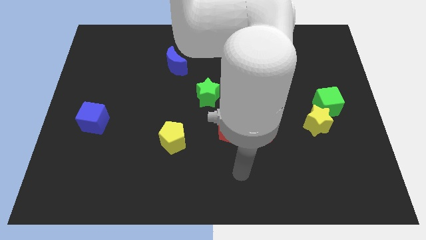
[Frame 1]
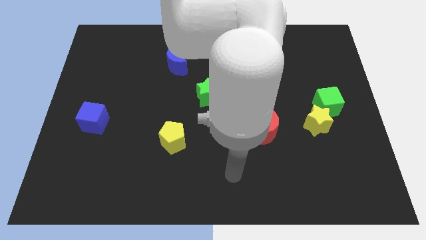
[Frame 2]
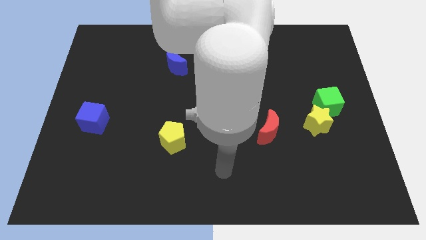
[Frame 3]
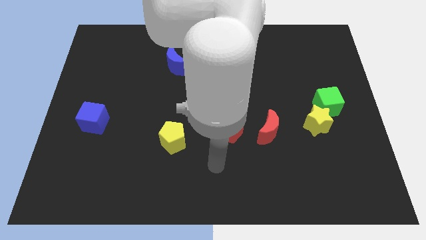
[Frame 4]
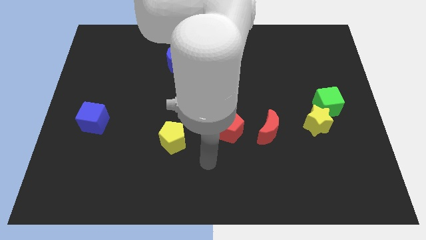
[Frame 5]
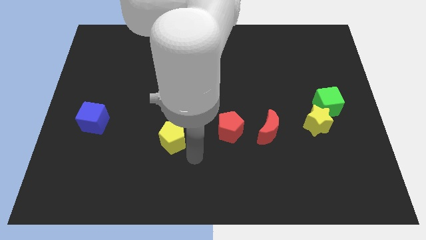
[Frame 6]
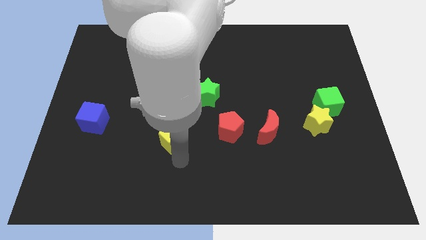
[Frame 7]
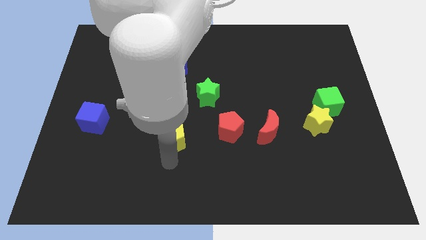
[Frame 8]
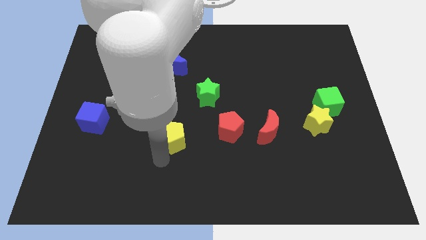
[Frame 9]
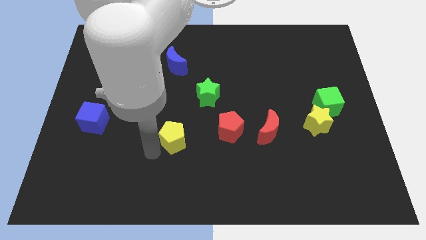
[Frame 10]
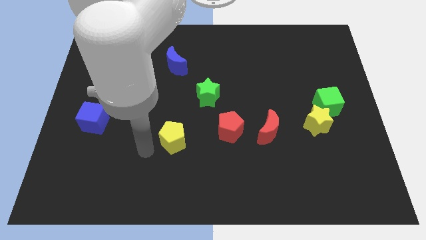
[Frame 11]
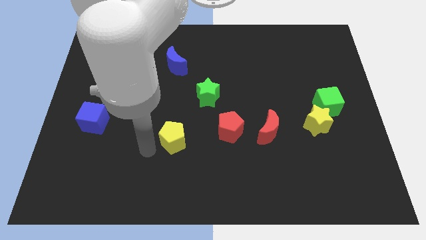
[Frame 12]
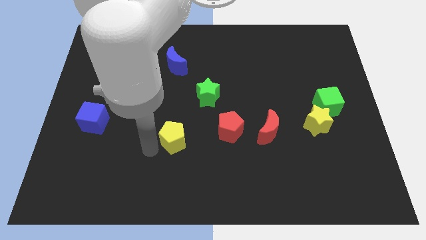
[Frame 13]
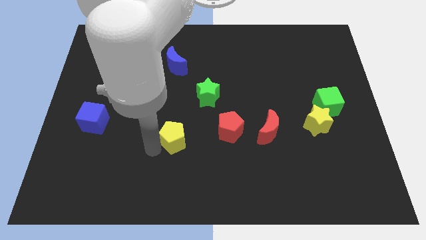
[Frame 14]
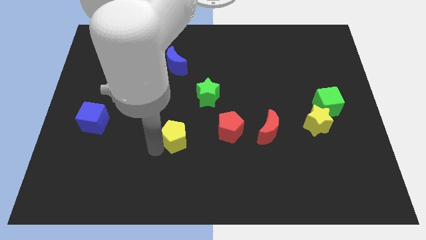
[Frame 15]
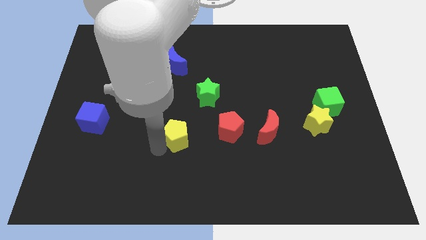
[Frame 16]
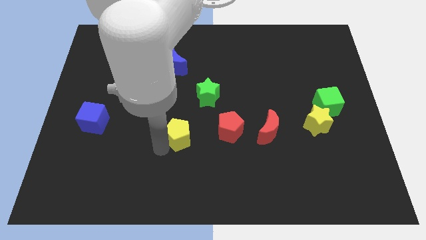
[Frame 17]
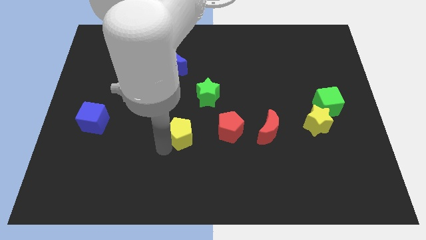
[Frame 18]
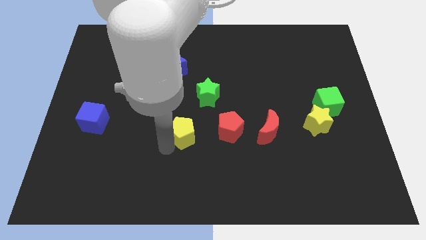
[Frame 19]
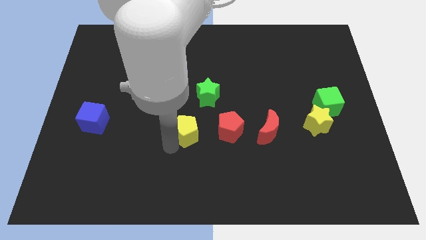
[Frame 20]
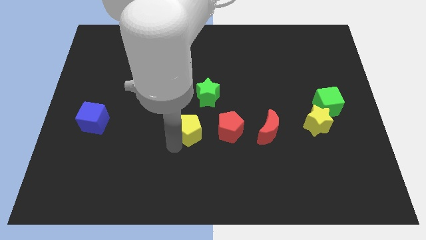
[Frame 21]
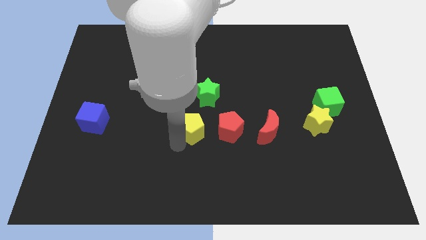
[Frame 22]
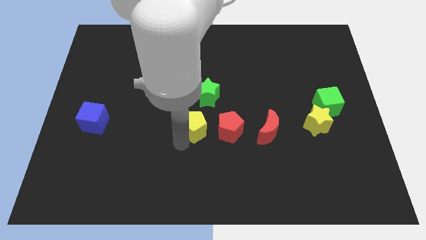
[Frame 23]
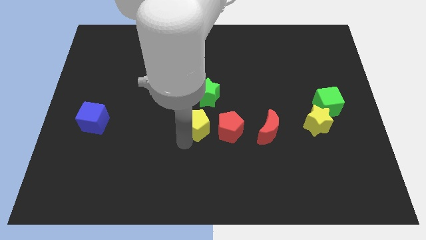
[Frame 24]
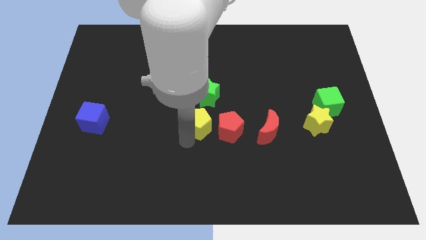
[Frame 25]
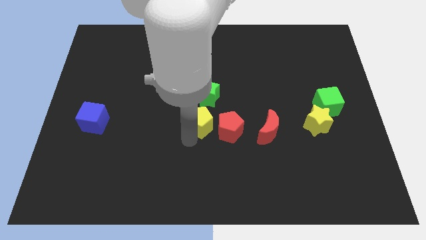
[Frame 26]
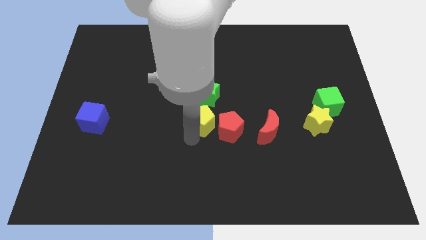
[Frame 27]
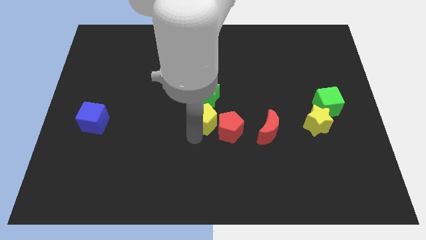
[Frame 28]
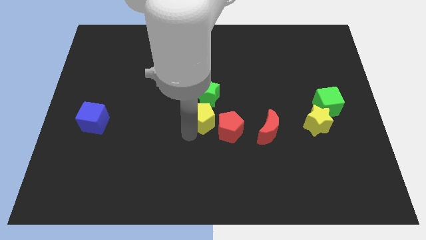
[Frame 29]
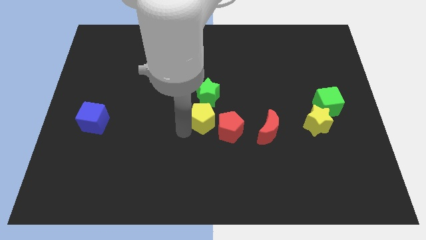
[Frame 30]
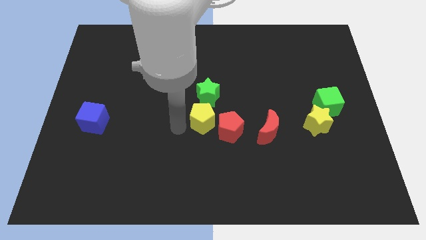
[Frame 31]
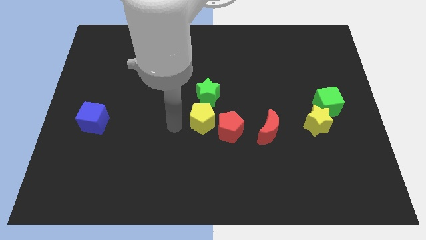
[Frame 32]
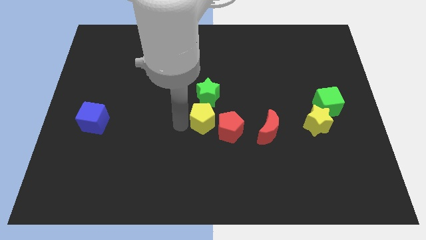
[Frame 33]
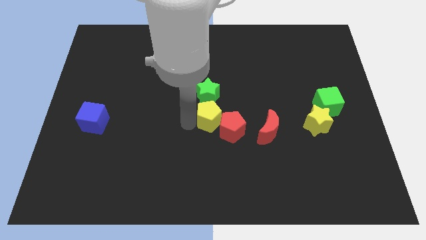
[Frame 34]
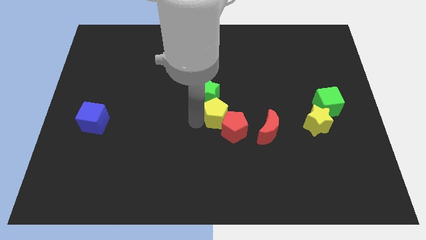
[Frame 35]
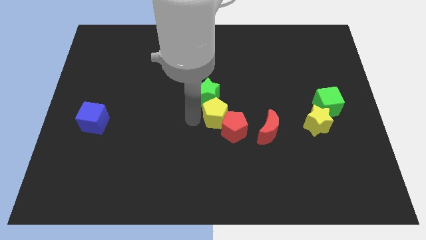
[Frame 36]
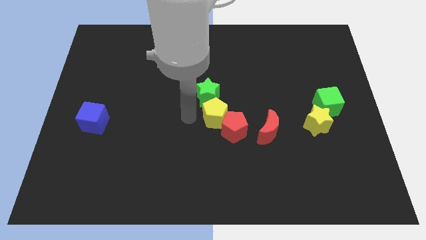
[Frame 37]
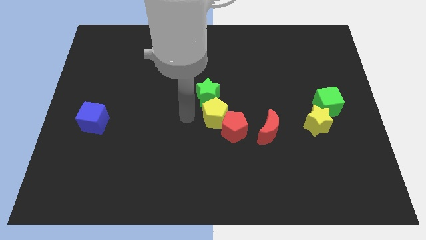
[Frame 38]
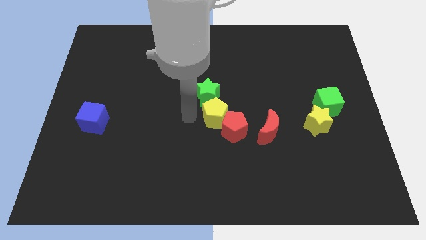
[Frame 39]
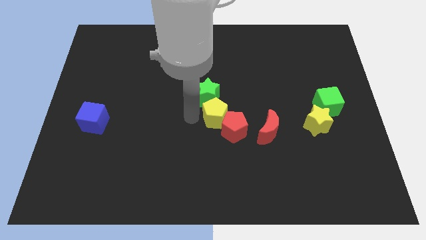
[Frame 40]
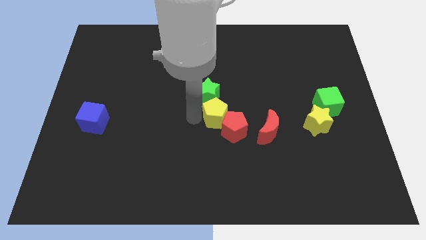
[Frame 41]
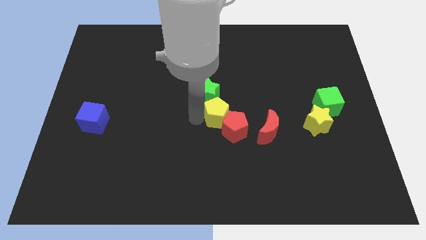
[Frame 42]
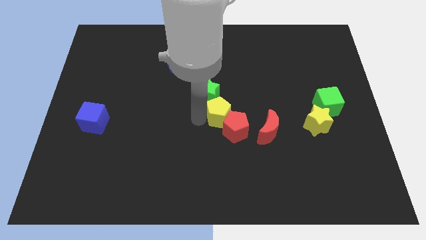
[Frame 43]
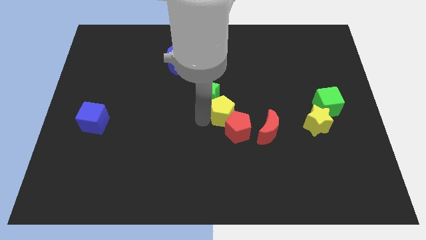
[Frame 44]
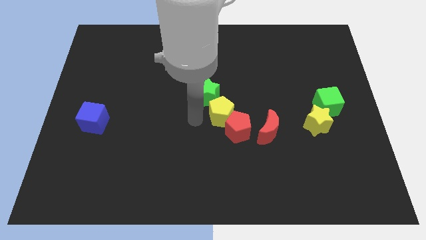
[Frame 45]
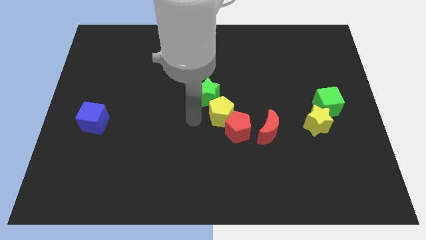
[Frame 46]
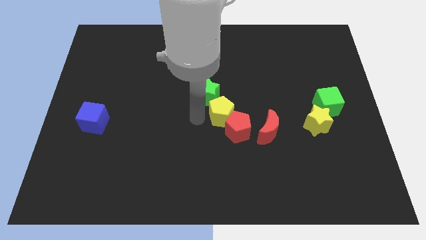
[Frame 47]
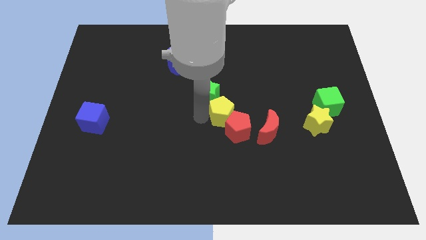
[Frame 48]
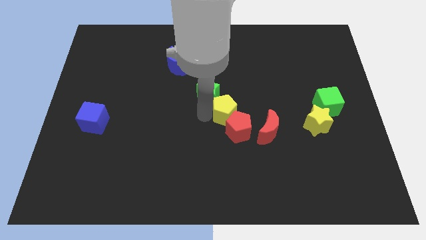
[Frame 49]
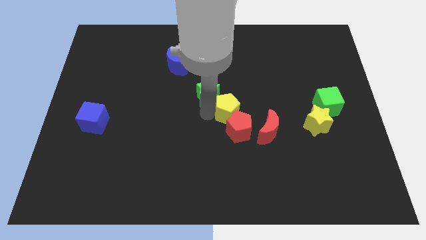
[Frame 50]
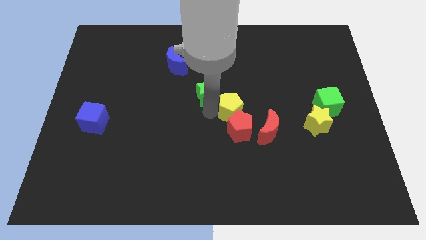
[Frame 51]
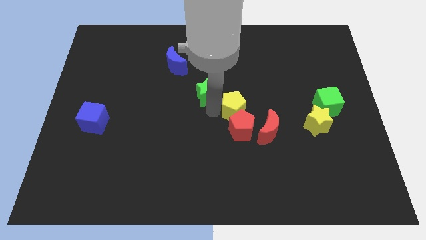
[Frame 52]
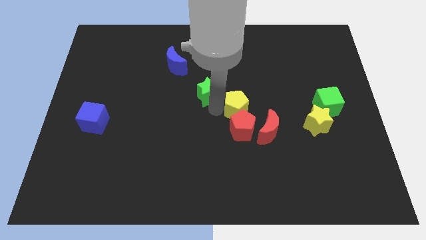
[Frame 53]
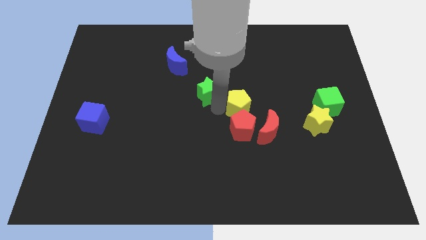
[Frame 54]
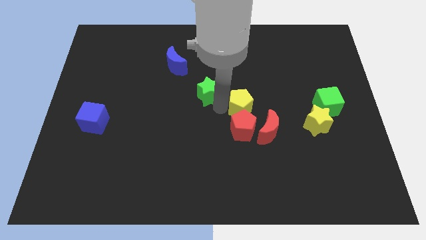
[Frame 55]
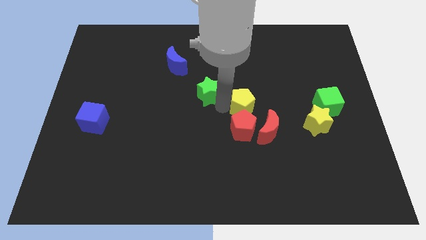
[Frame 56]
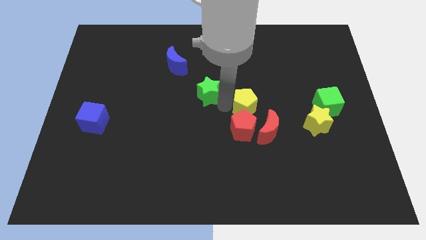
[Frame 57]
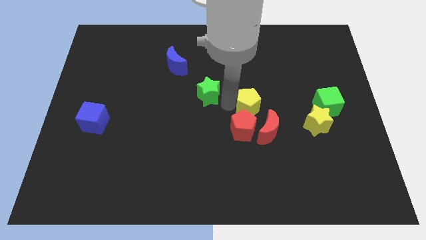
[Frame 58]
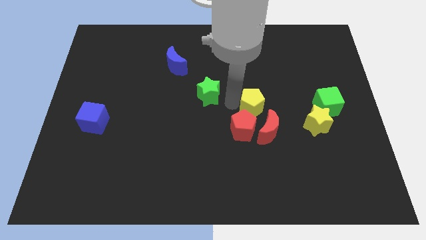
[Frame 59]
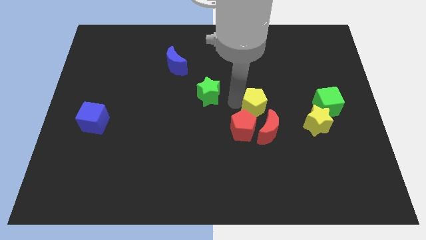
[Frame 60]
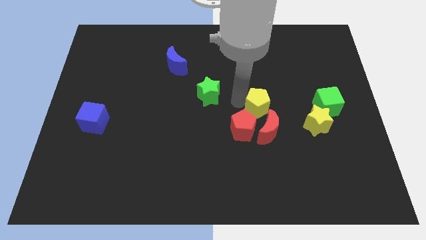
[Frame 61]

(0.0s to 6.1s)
move the yellow pentagon to the left of the green cube

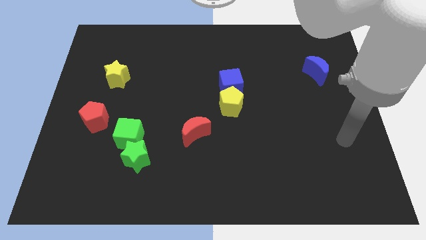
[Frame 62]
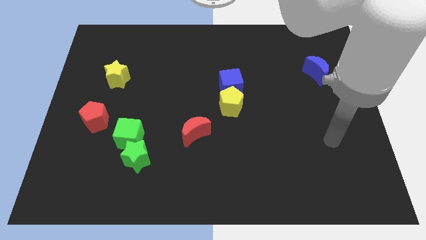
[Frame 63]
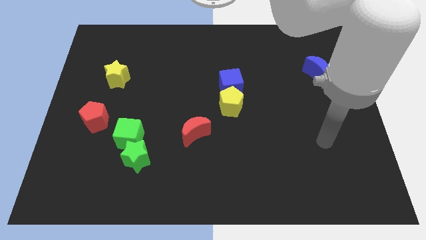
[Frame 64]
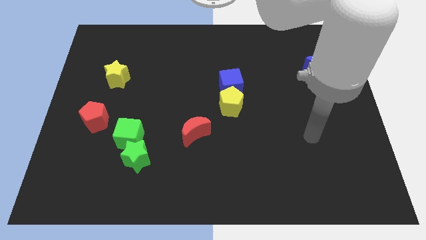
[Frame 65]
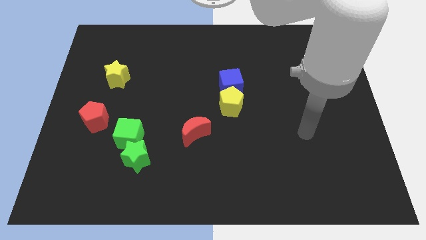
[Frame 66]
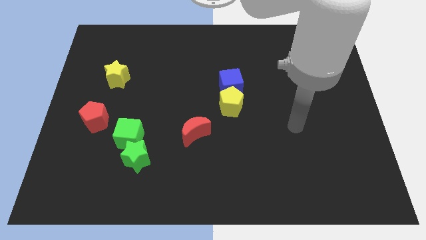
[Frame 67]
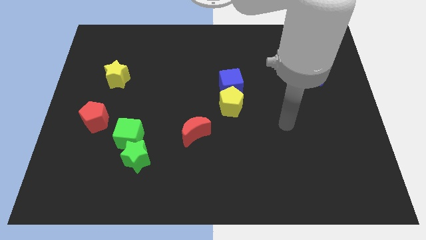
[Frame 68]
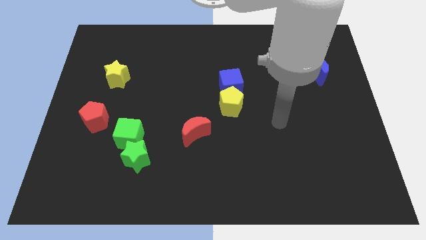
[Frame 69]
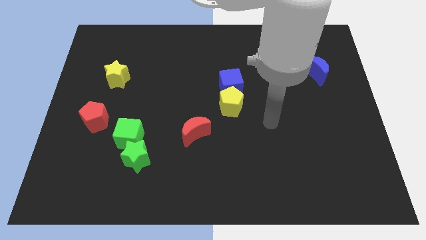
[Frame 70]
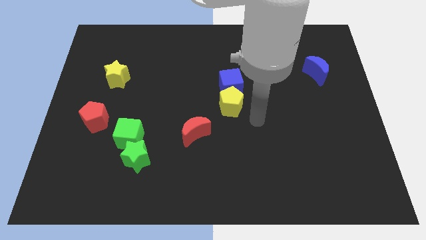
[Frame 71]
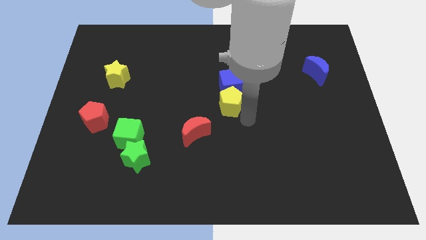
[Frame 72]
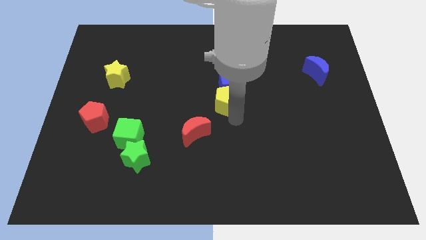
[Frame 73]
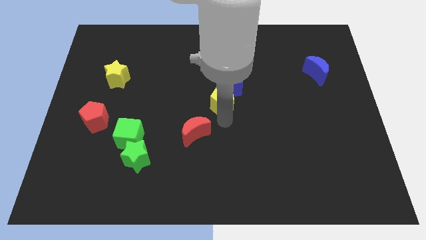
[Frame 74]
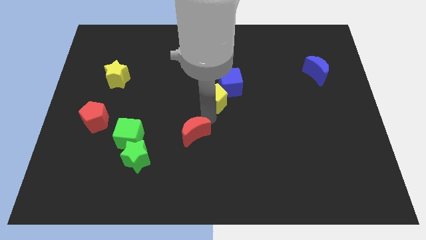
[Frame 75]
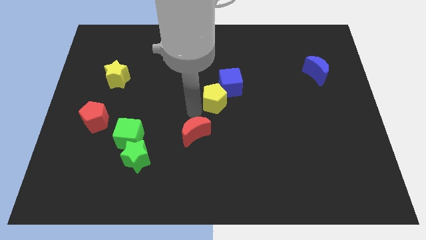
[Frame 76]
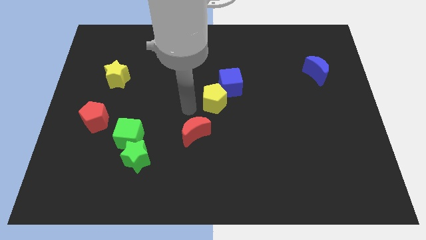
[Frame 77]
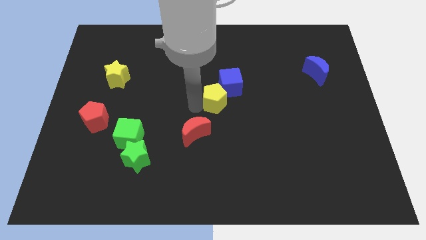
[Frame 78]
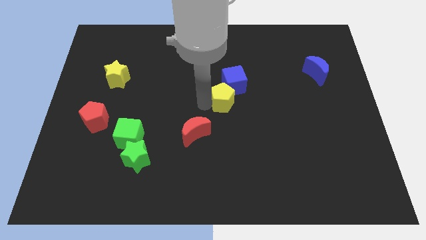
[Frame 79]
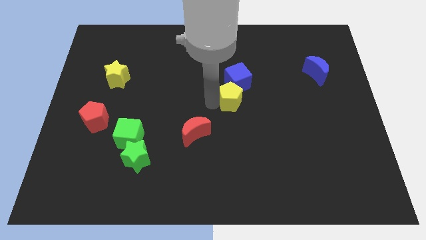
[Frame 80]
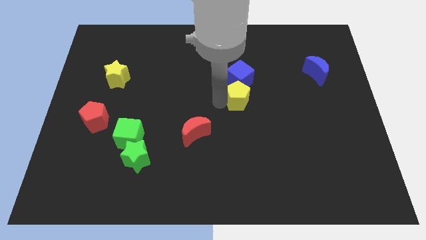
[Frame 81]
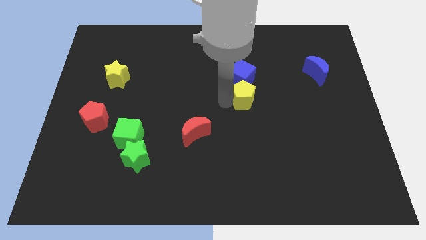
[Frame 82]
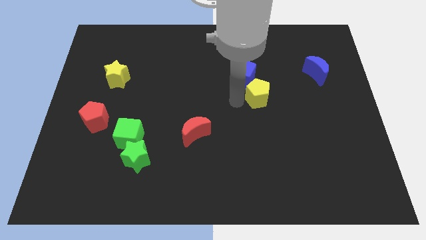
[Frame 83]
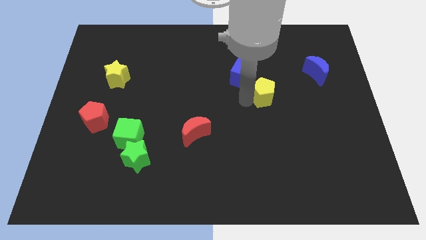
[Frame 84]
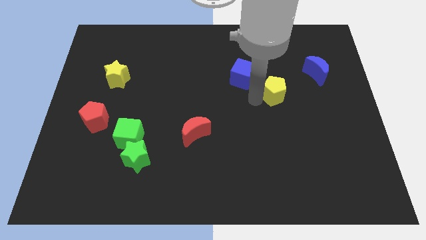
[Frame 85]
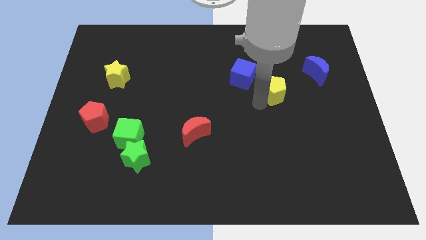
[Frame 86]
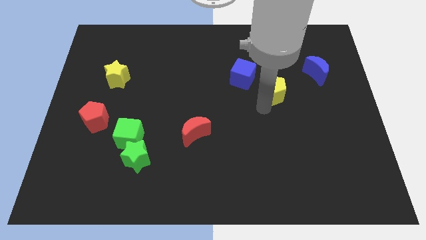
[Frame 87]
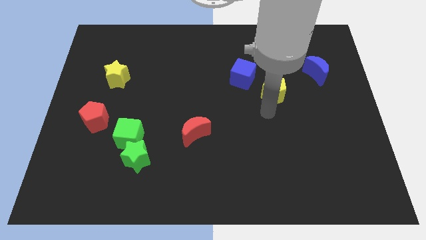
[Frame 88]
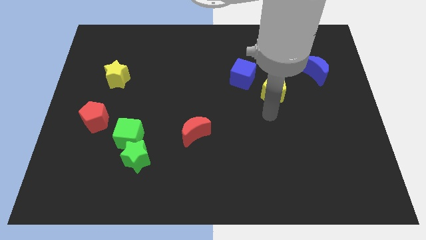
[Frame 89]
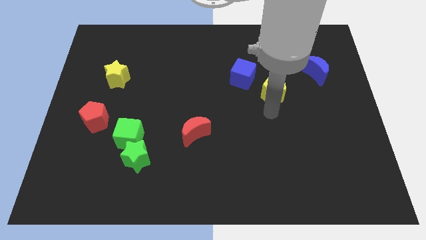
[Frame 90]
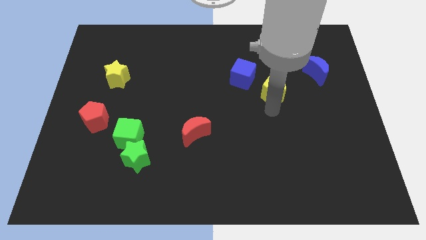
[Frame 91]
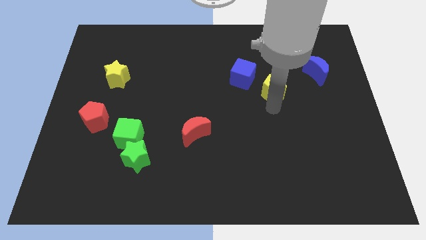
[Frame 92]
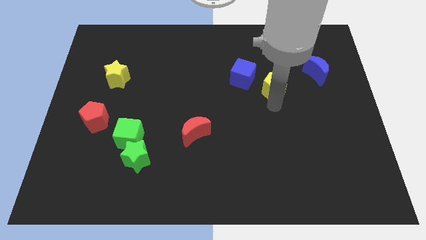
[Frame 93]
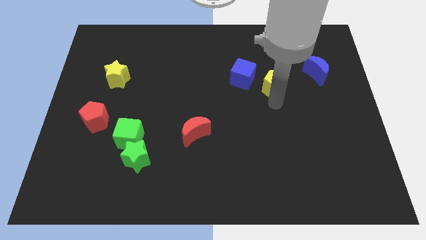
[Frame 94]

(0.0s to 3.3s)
move the yellow pentagon to the left side of the blue moon
